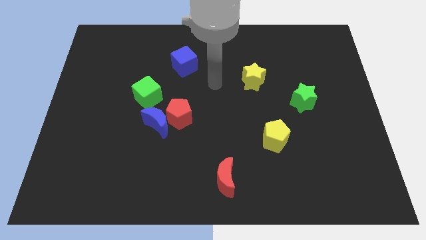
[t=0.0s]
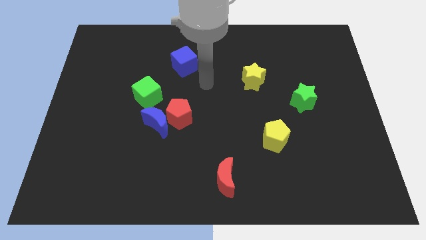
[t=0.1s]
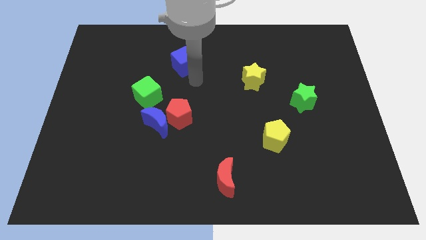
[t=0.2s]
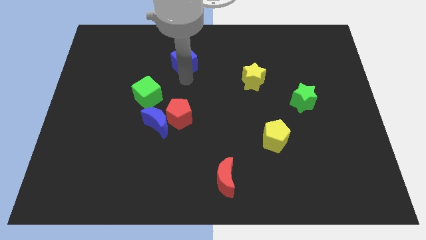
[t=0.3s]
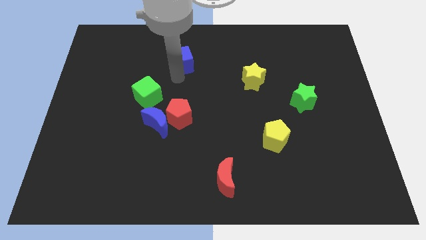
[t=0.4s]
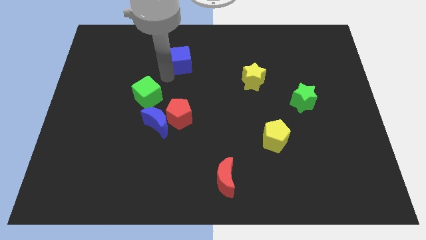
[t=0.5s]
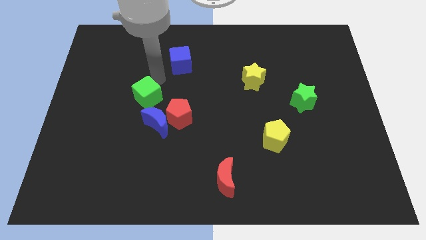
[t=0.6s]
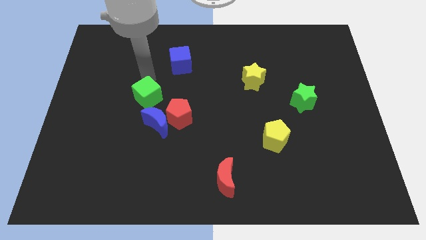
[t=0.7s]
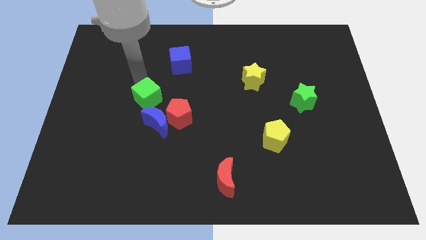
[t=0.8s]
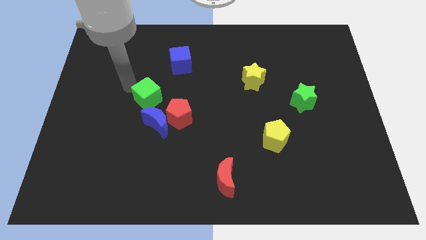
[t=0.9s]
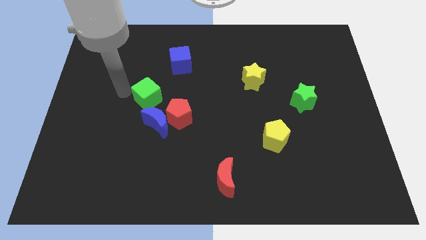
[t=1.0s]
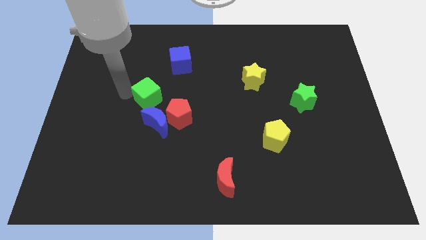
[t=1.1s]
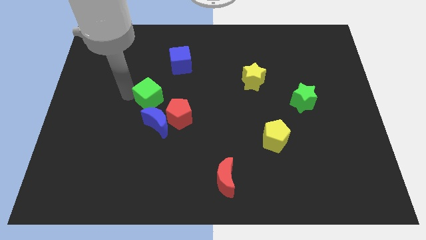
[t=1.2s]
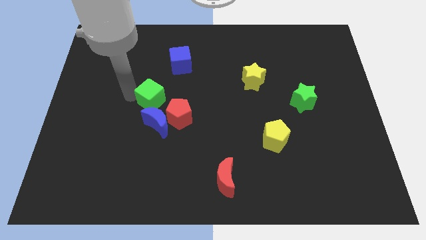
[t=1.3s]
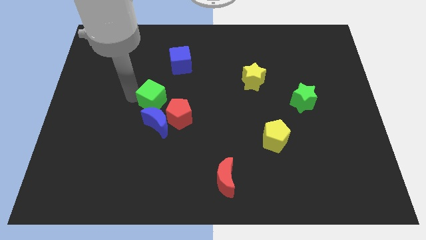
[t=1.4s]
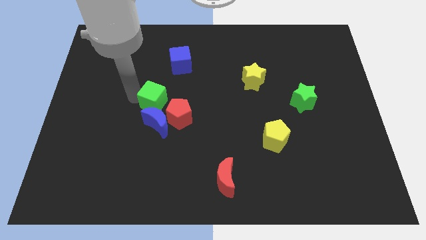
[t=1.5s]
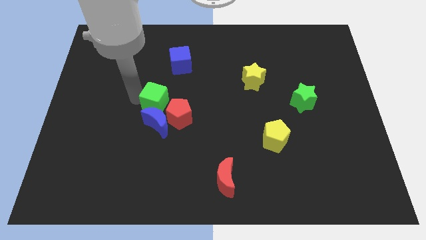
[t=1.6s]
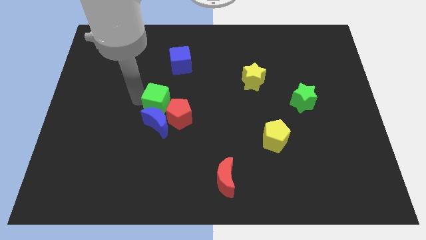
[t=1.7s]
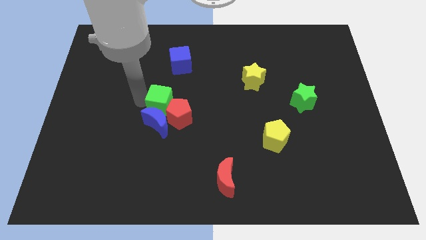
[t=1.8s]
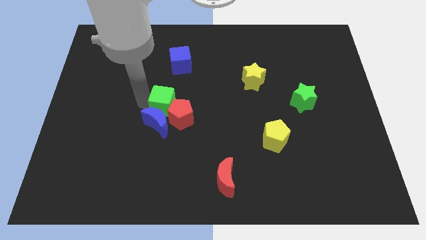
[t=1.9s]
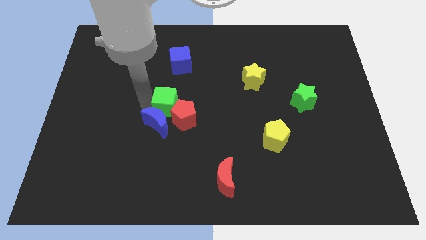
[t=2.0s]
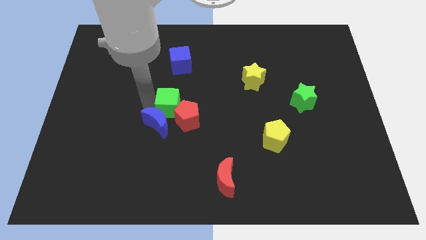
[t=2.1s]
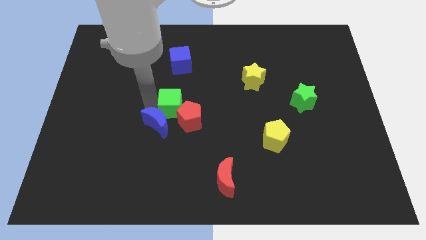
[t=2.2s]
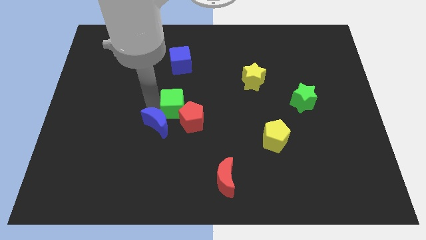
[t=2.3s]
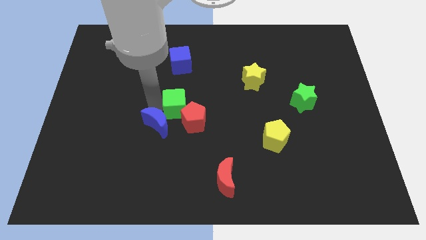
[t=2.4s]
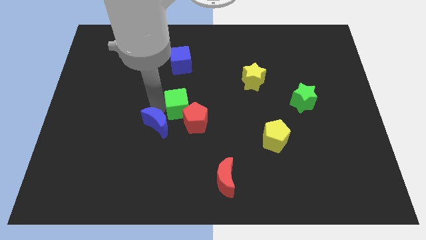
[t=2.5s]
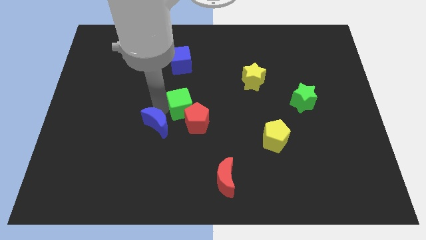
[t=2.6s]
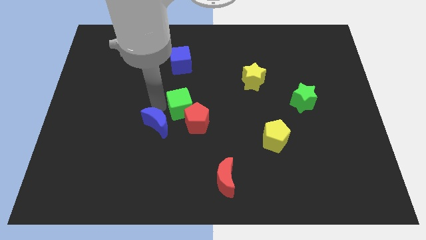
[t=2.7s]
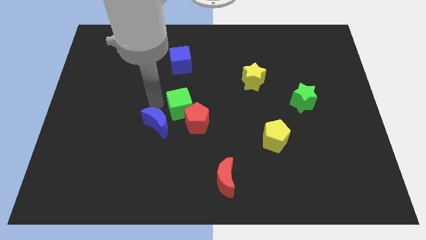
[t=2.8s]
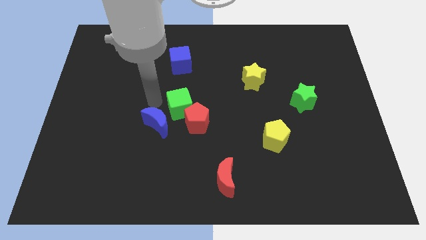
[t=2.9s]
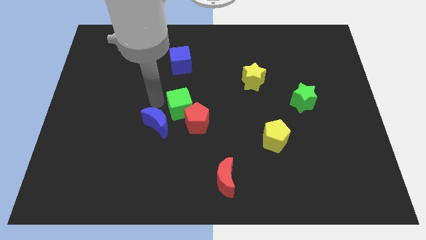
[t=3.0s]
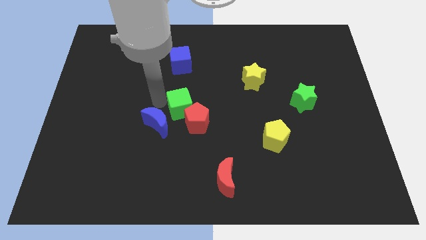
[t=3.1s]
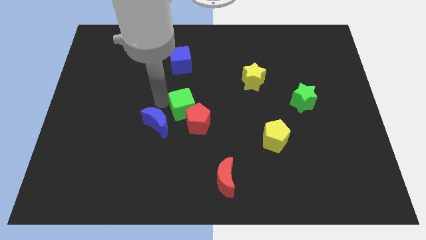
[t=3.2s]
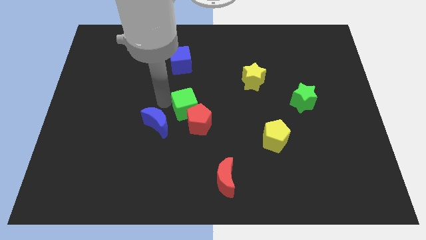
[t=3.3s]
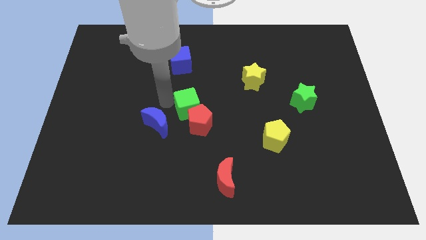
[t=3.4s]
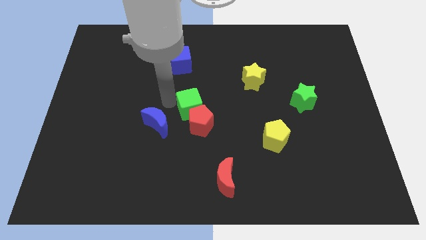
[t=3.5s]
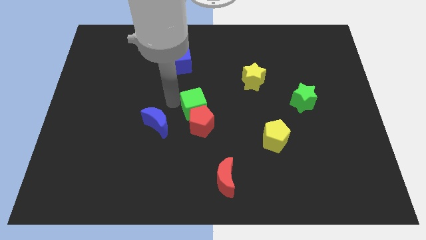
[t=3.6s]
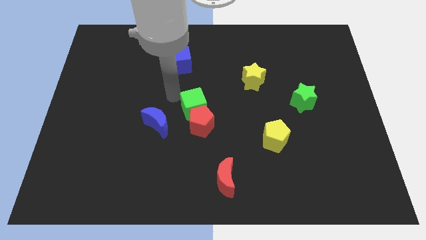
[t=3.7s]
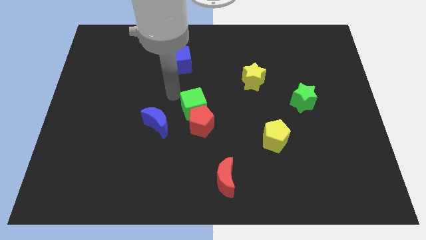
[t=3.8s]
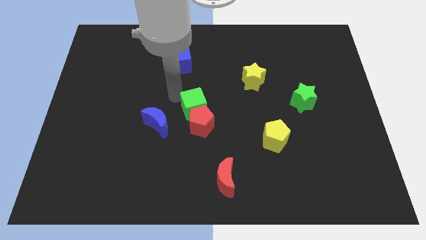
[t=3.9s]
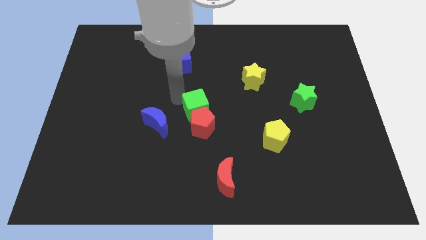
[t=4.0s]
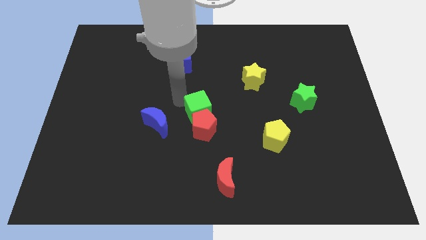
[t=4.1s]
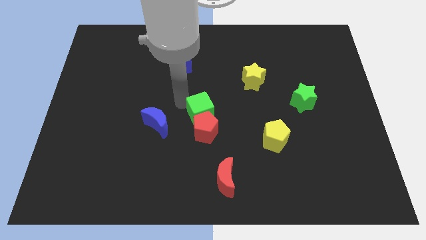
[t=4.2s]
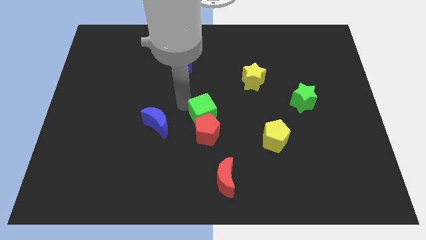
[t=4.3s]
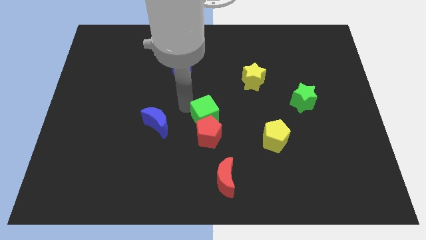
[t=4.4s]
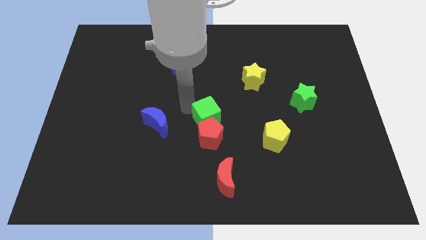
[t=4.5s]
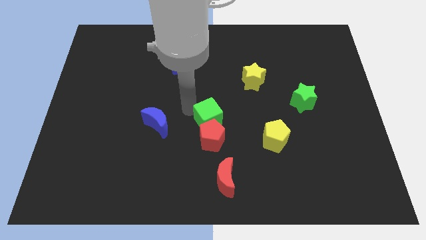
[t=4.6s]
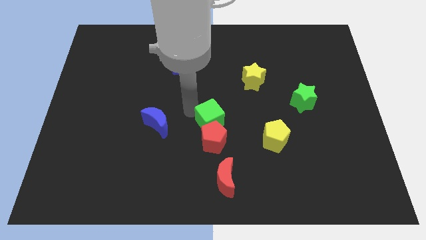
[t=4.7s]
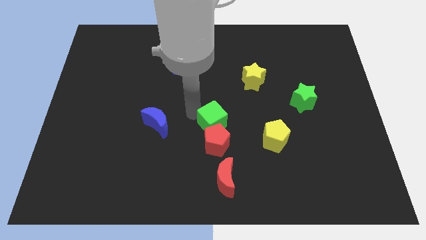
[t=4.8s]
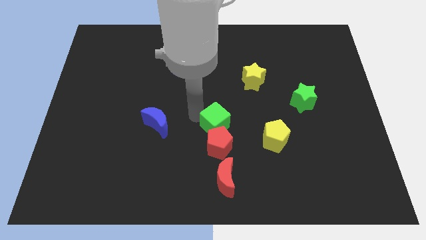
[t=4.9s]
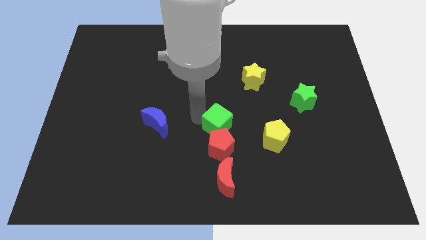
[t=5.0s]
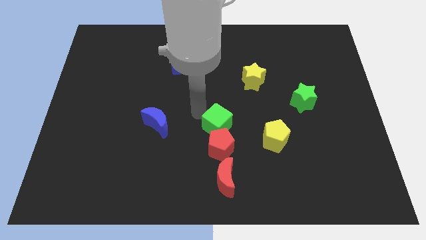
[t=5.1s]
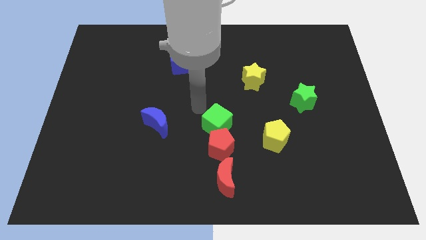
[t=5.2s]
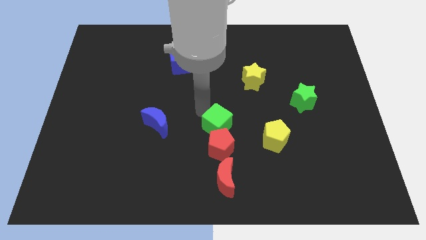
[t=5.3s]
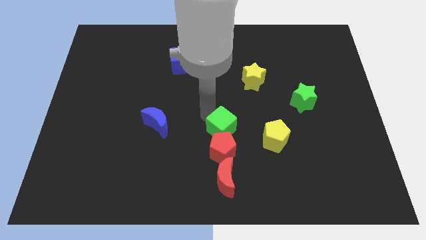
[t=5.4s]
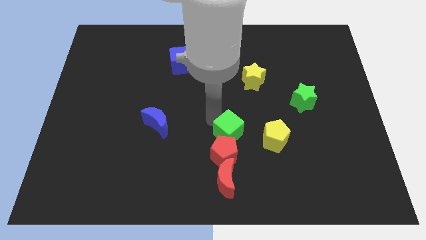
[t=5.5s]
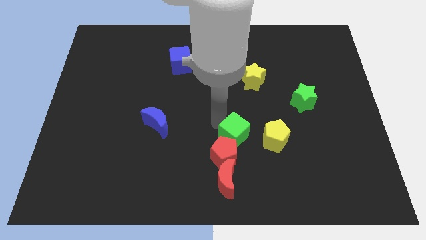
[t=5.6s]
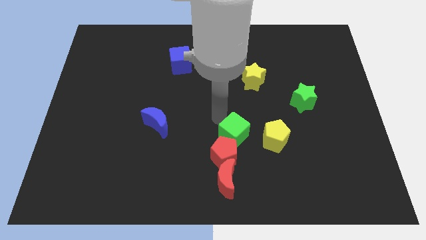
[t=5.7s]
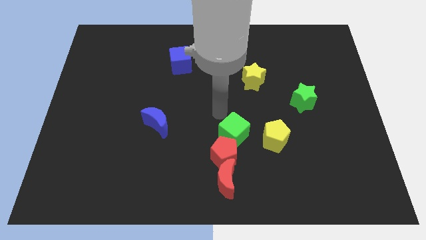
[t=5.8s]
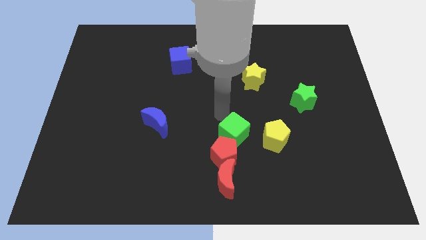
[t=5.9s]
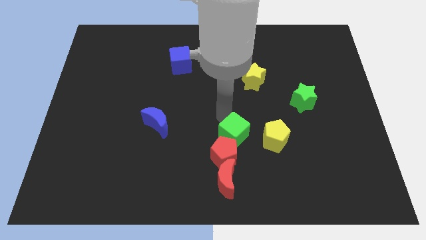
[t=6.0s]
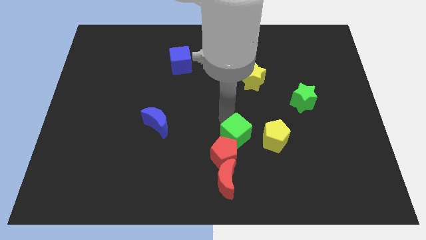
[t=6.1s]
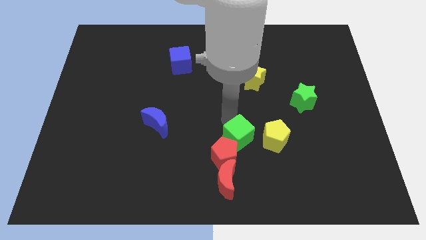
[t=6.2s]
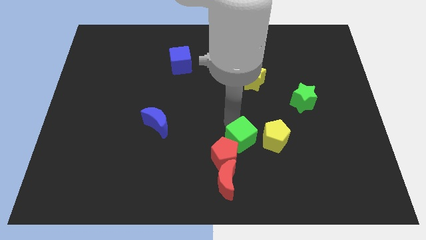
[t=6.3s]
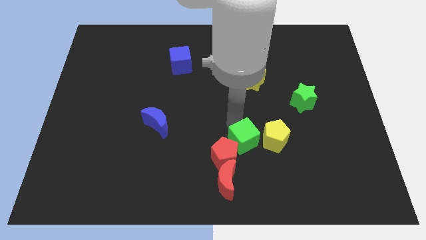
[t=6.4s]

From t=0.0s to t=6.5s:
move the green cube to the bottom left side of the yellow pentagon

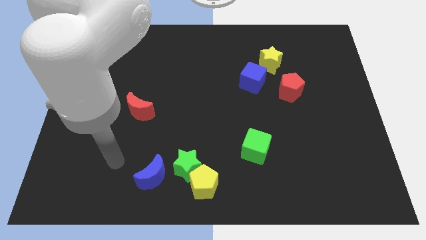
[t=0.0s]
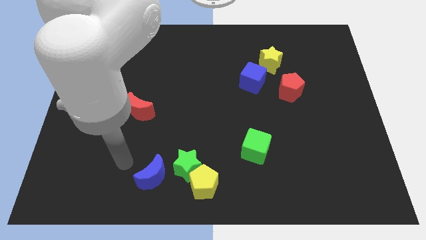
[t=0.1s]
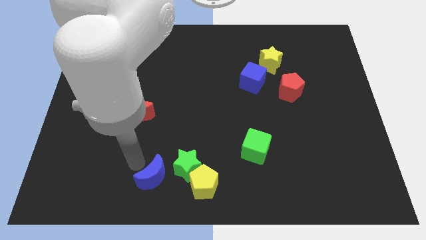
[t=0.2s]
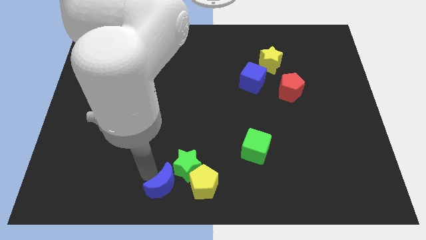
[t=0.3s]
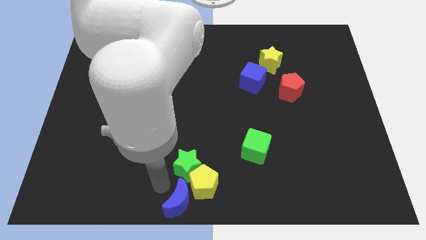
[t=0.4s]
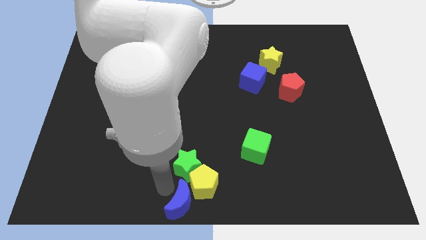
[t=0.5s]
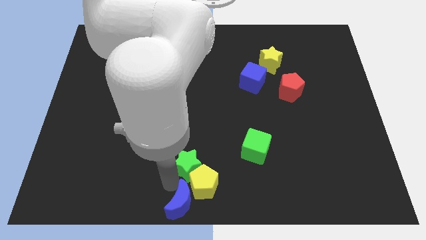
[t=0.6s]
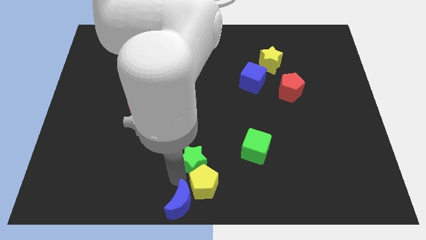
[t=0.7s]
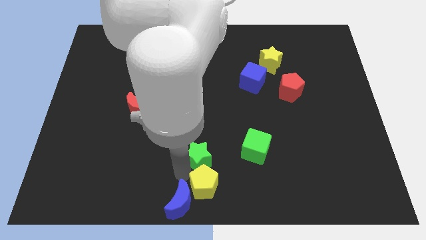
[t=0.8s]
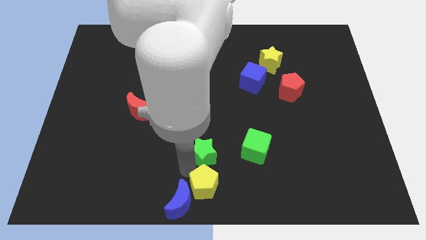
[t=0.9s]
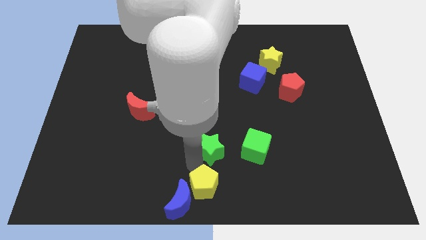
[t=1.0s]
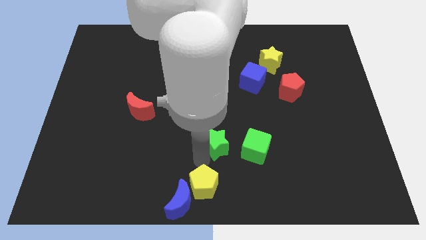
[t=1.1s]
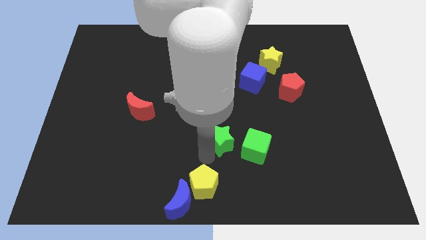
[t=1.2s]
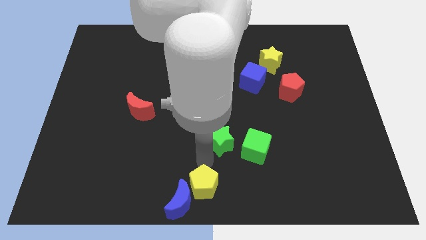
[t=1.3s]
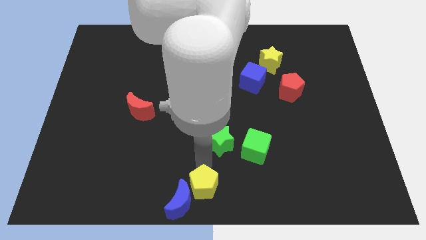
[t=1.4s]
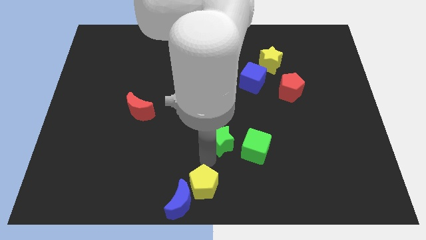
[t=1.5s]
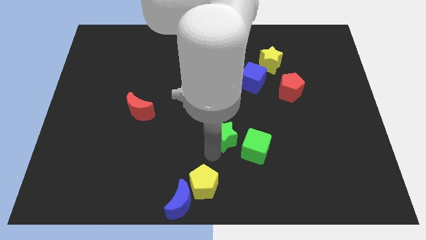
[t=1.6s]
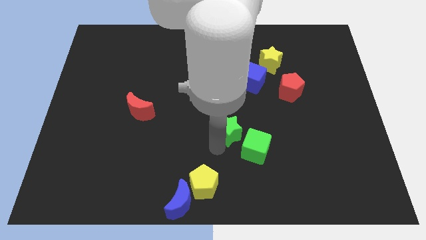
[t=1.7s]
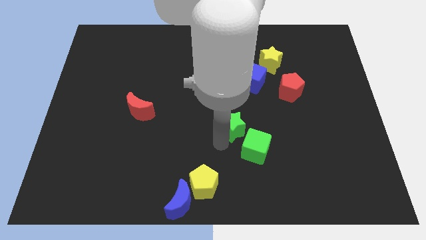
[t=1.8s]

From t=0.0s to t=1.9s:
put the green star to the top side of the green cube
